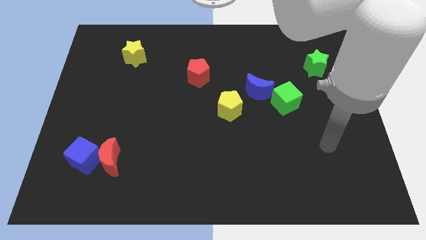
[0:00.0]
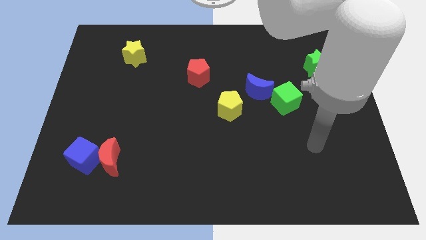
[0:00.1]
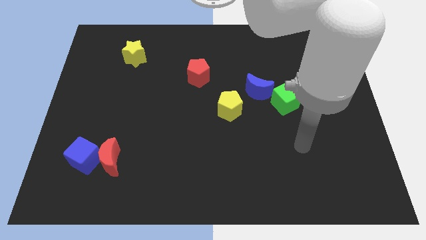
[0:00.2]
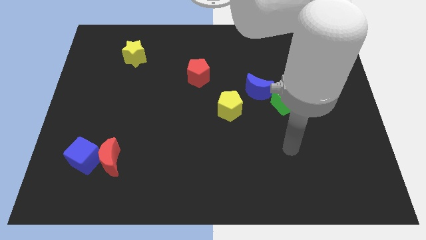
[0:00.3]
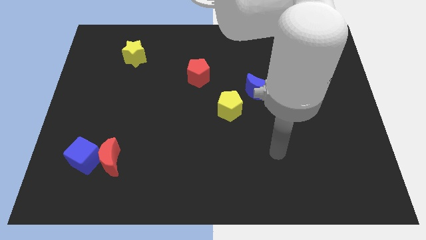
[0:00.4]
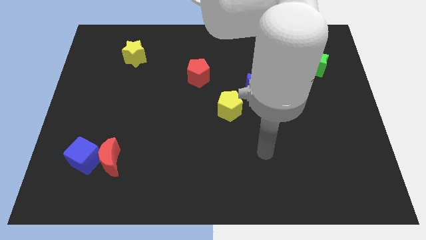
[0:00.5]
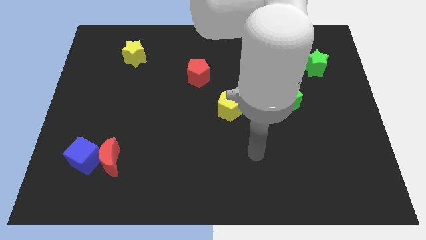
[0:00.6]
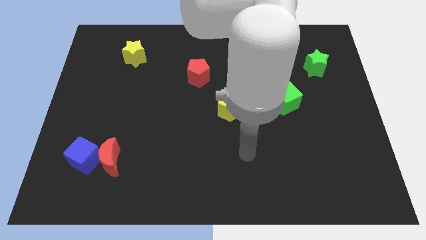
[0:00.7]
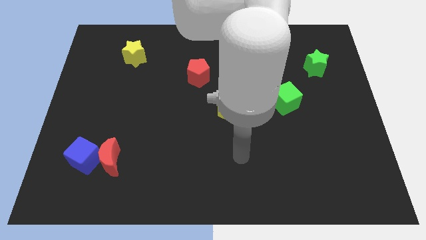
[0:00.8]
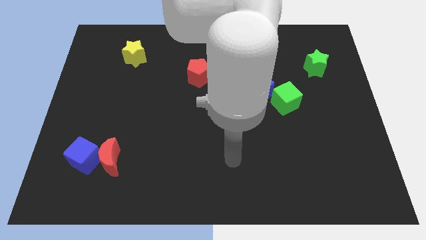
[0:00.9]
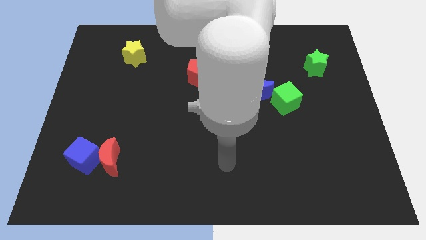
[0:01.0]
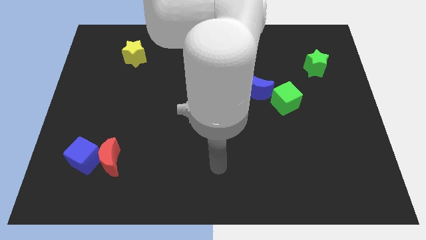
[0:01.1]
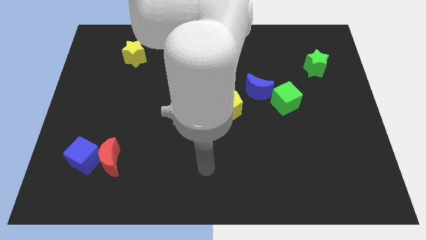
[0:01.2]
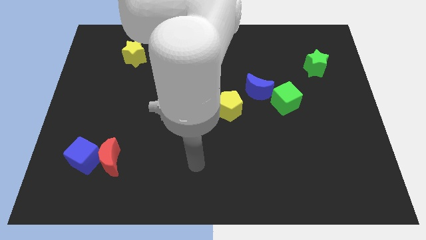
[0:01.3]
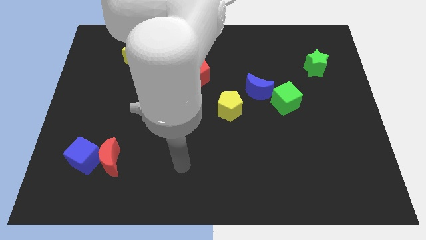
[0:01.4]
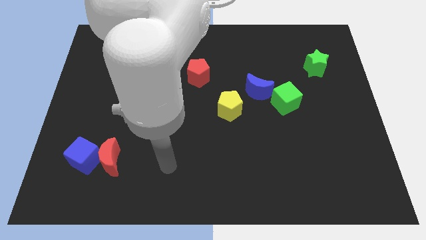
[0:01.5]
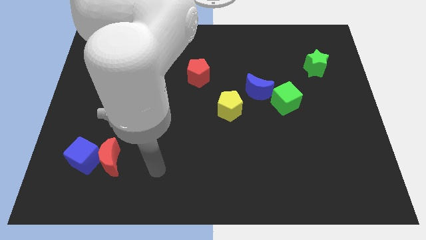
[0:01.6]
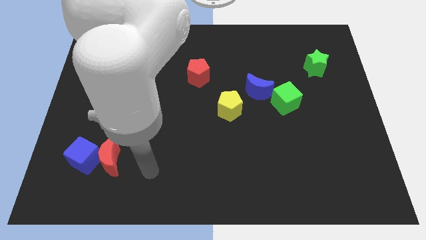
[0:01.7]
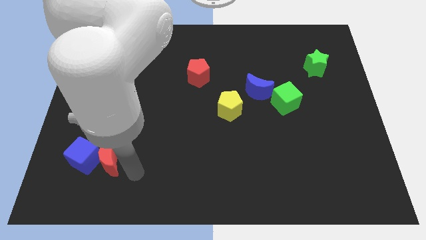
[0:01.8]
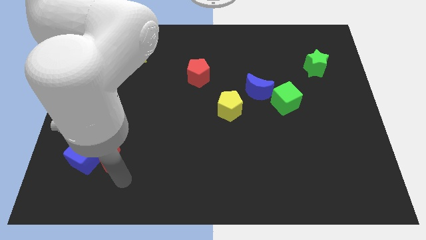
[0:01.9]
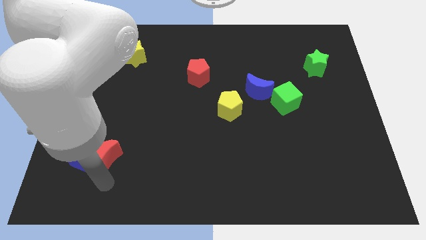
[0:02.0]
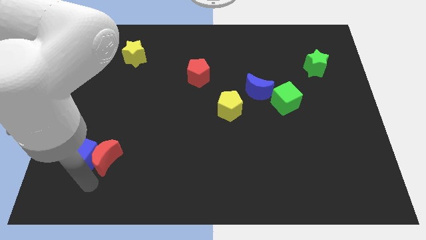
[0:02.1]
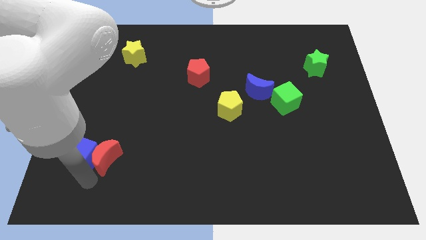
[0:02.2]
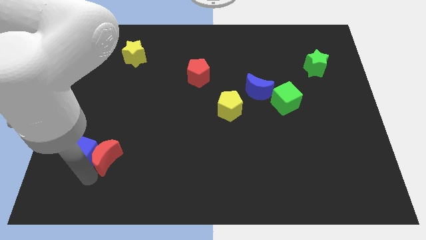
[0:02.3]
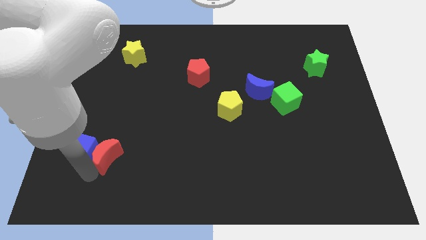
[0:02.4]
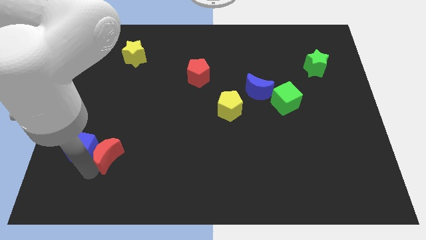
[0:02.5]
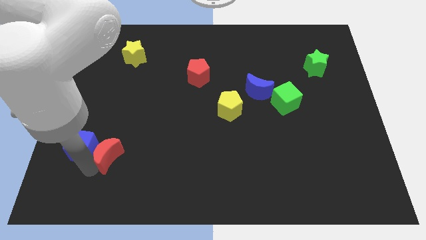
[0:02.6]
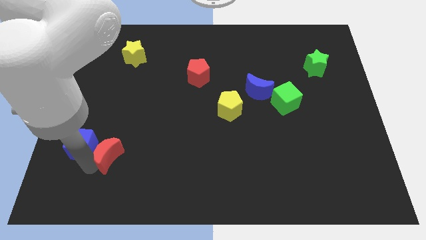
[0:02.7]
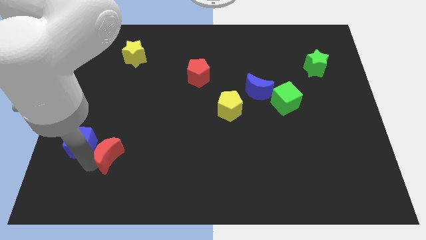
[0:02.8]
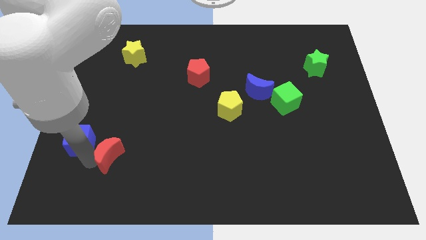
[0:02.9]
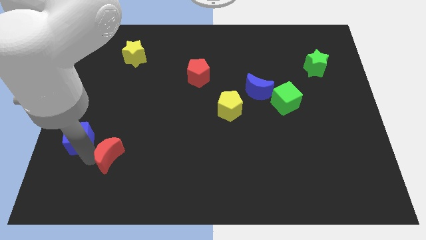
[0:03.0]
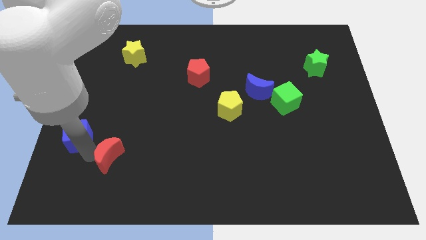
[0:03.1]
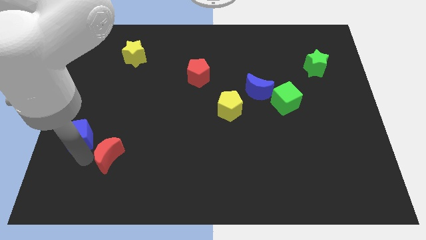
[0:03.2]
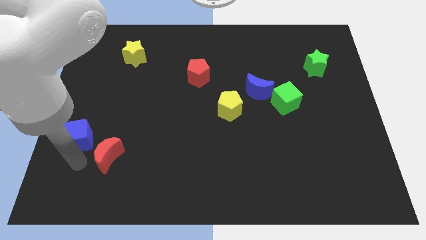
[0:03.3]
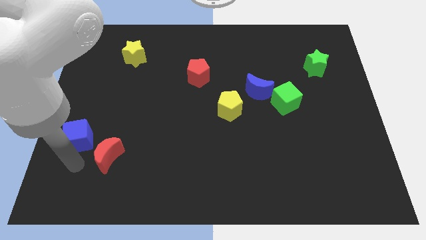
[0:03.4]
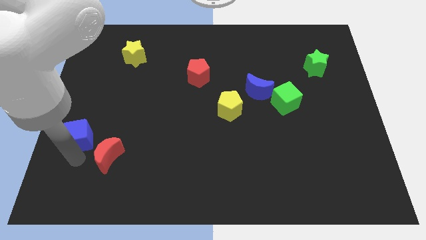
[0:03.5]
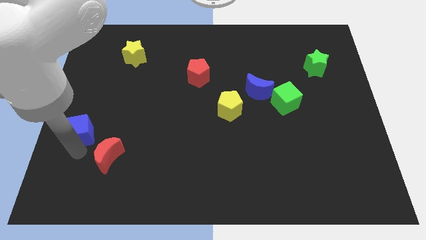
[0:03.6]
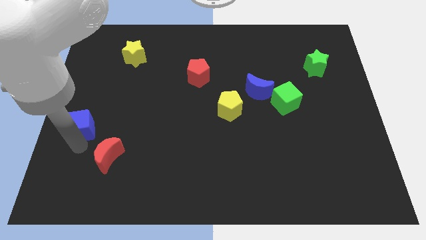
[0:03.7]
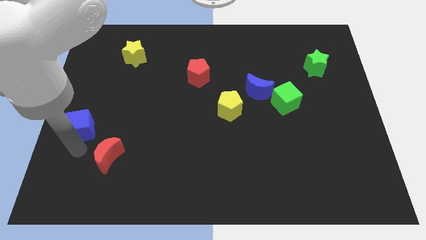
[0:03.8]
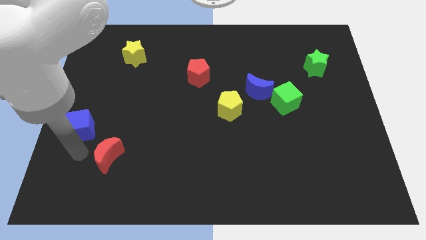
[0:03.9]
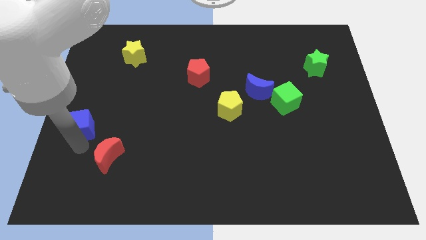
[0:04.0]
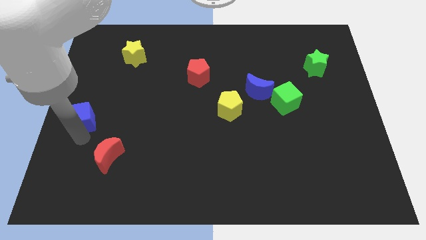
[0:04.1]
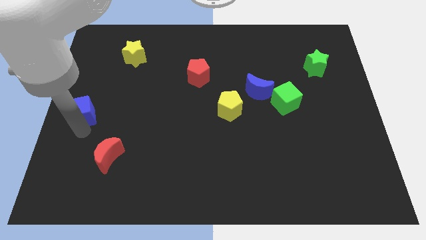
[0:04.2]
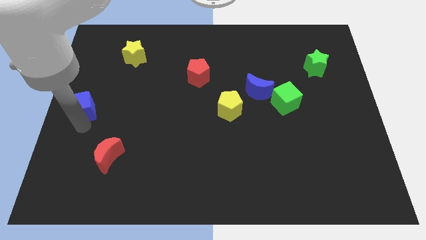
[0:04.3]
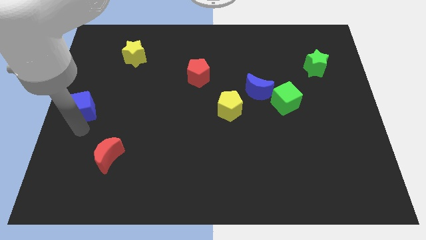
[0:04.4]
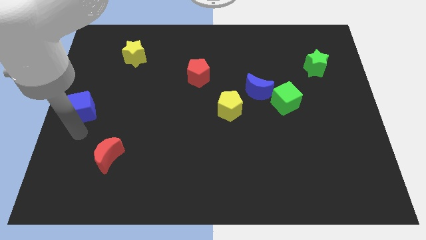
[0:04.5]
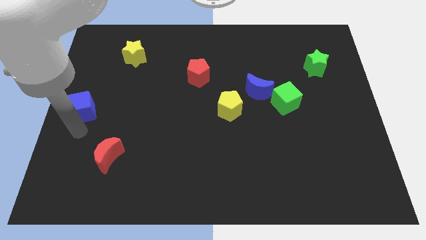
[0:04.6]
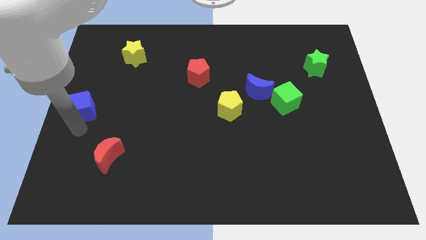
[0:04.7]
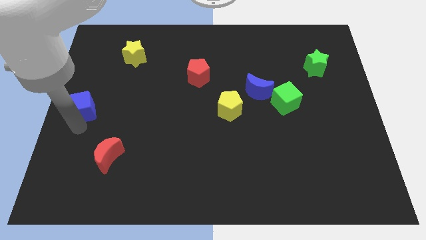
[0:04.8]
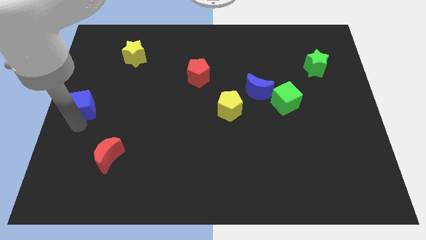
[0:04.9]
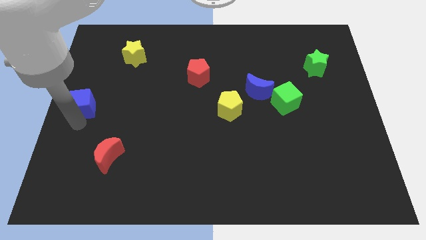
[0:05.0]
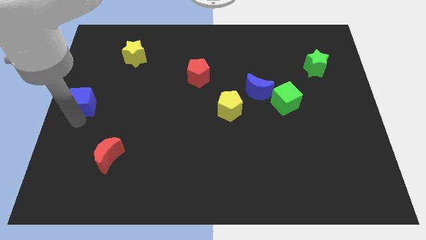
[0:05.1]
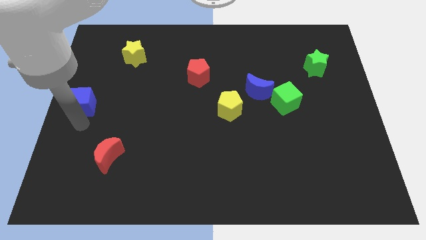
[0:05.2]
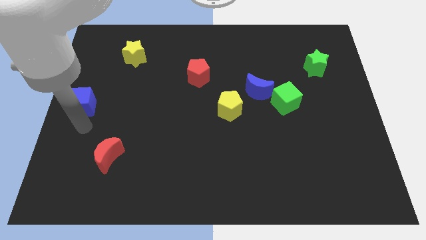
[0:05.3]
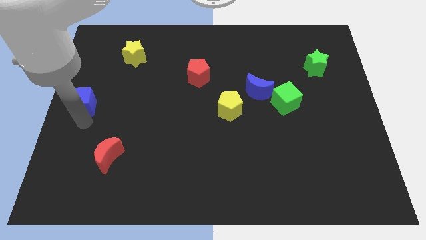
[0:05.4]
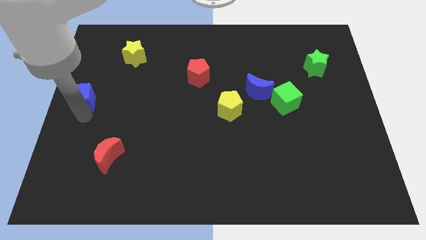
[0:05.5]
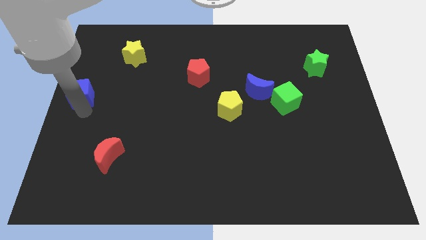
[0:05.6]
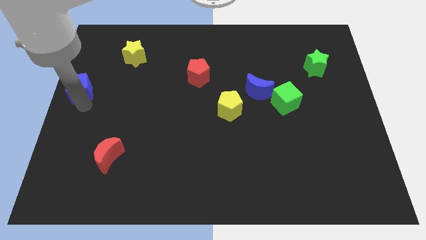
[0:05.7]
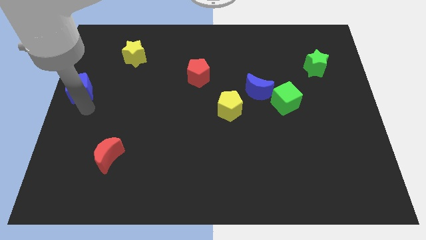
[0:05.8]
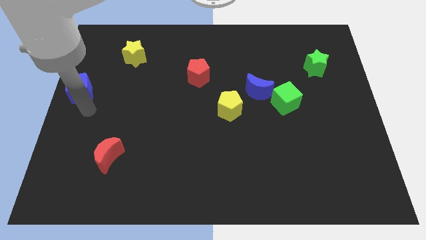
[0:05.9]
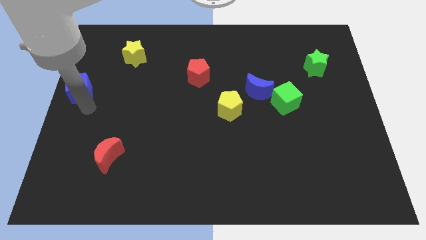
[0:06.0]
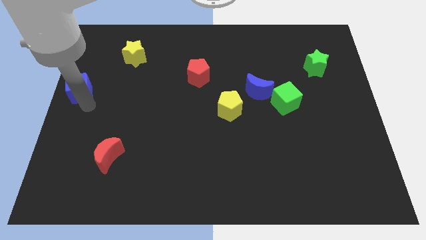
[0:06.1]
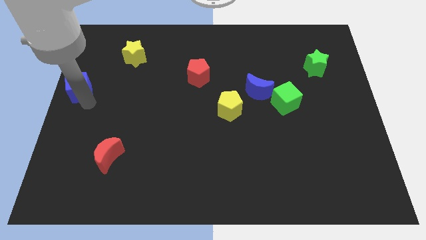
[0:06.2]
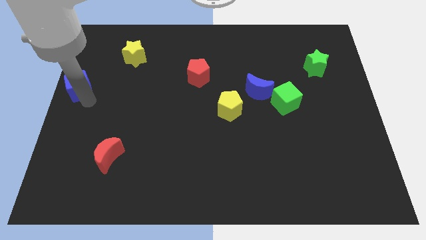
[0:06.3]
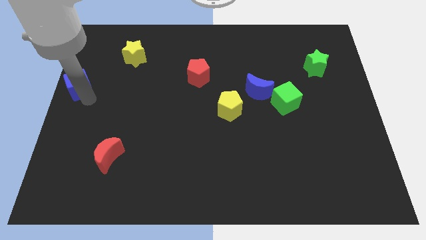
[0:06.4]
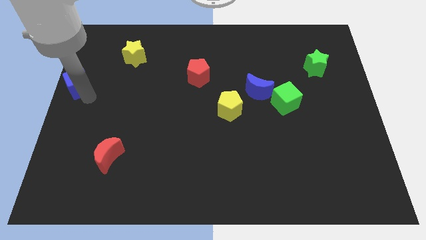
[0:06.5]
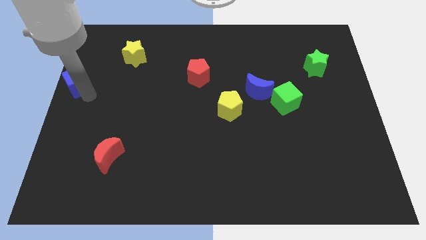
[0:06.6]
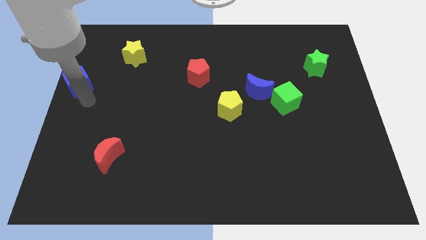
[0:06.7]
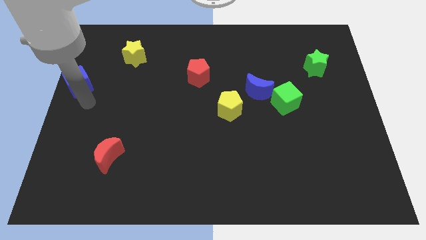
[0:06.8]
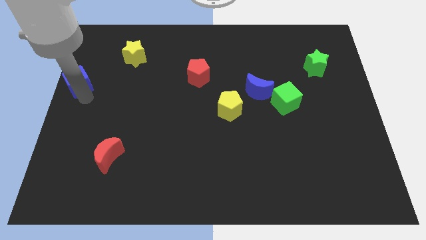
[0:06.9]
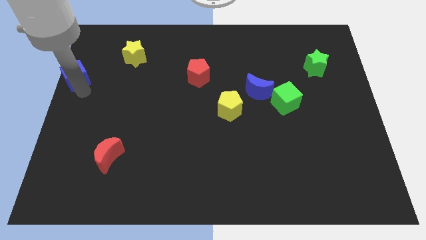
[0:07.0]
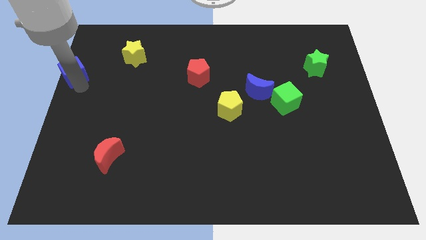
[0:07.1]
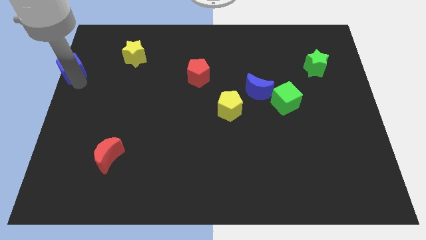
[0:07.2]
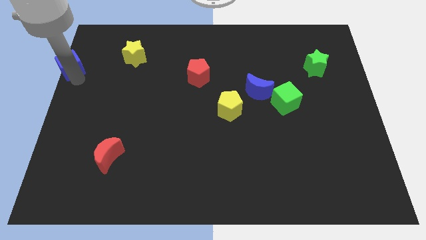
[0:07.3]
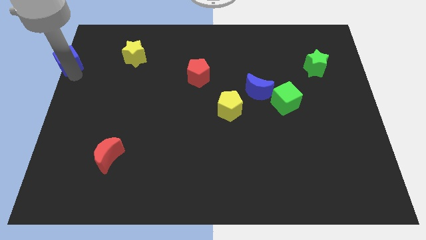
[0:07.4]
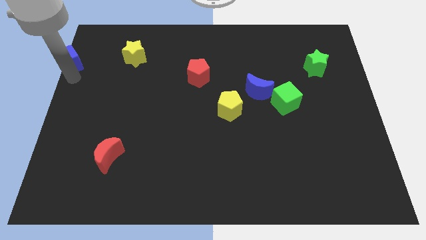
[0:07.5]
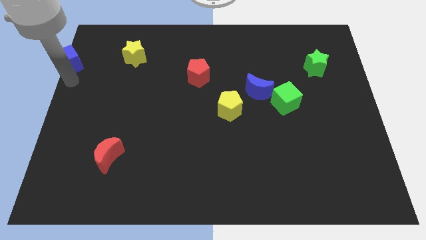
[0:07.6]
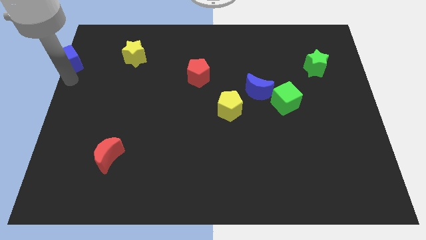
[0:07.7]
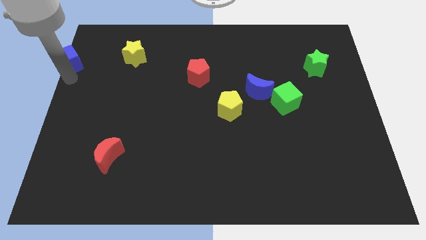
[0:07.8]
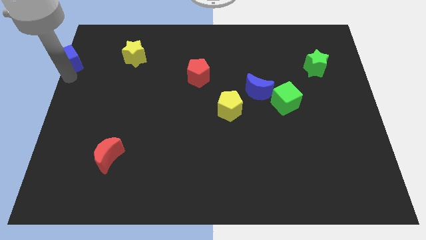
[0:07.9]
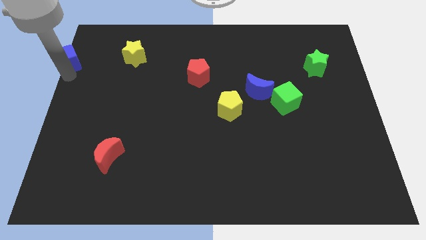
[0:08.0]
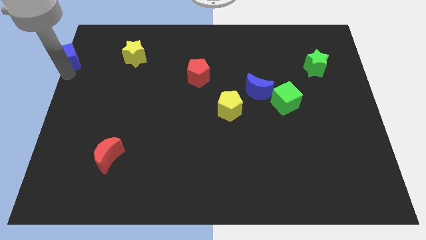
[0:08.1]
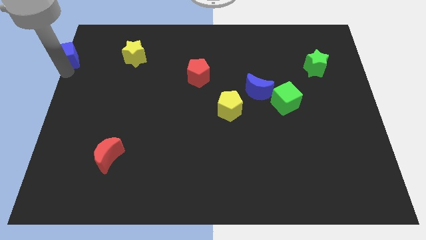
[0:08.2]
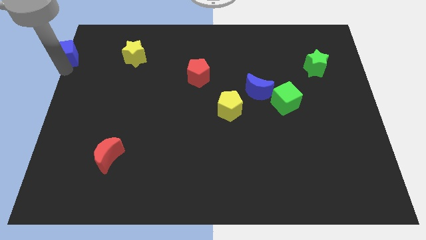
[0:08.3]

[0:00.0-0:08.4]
move the blue cube to the top left
